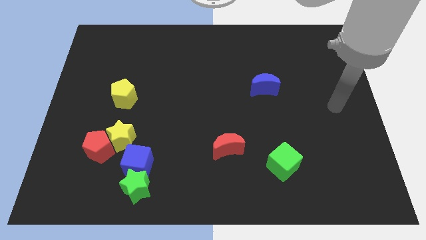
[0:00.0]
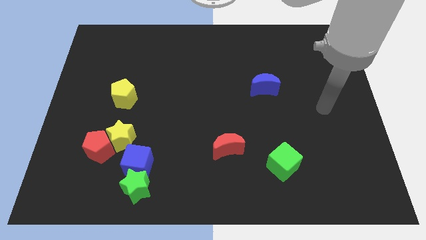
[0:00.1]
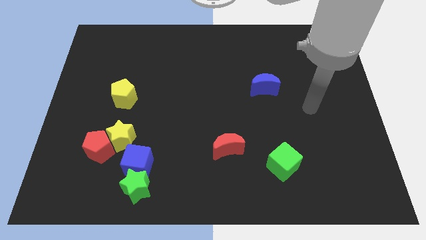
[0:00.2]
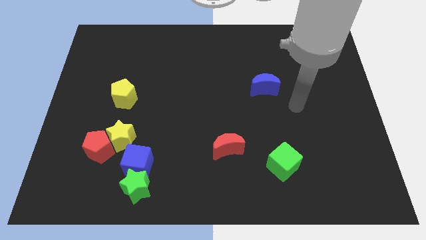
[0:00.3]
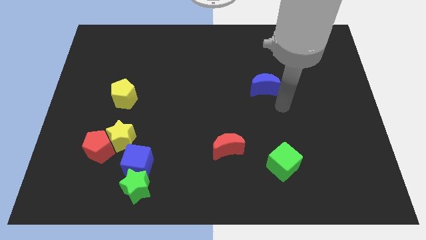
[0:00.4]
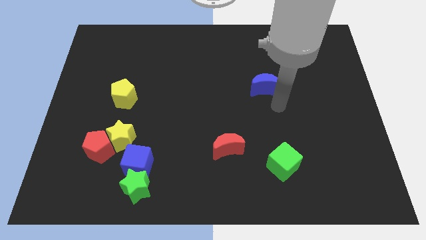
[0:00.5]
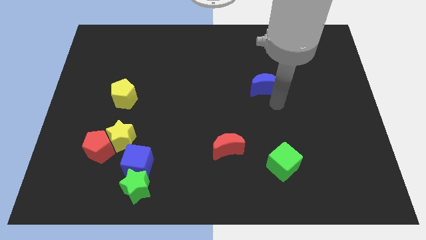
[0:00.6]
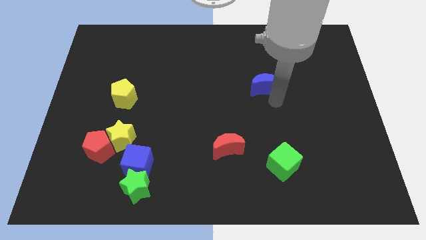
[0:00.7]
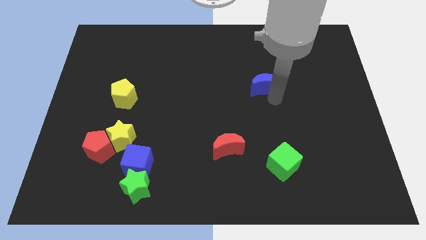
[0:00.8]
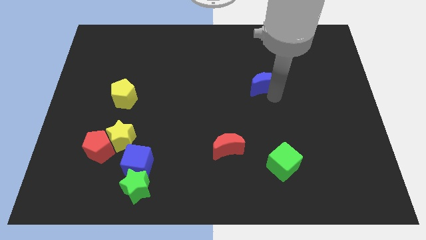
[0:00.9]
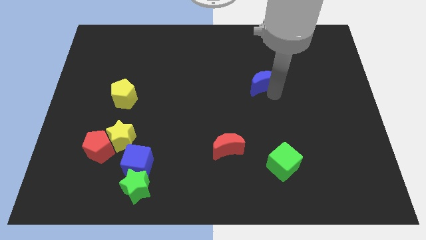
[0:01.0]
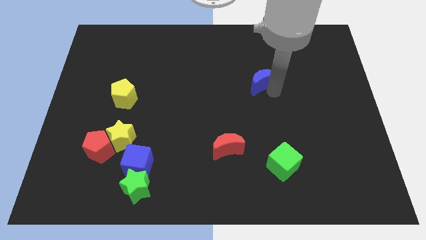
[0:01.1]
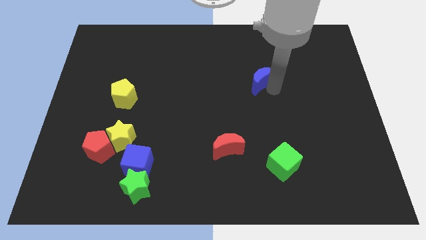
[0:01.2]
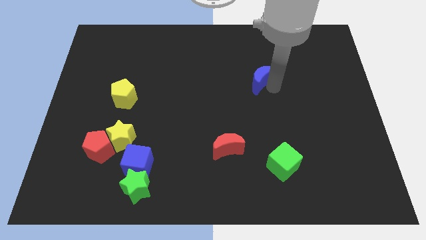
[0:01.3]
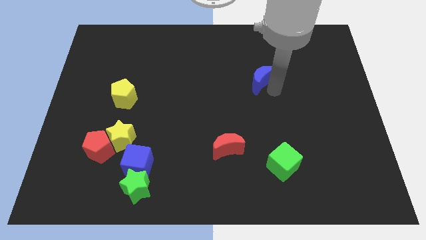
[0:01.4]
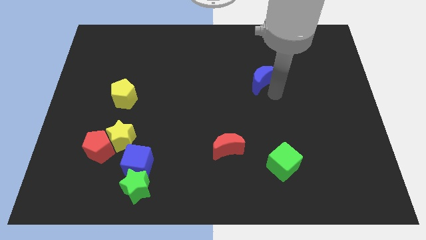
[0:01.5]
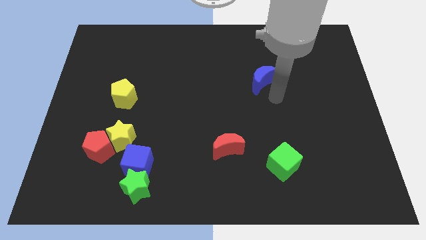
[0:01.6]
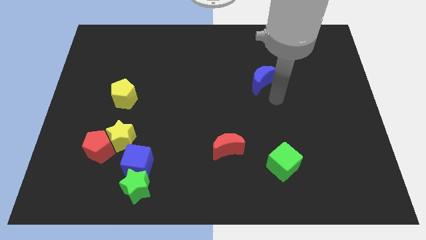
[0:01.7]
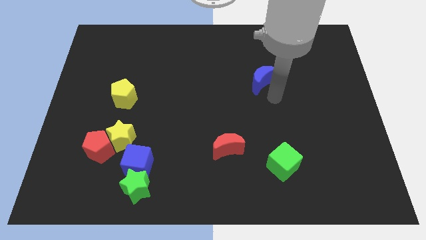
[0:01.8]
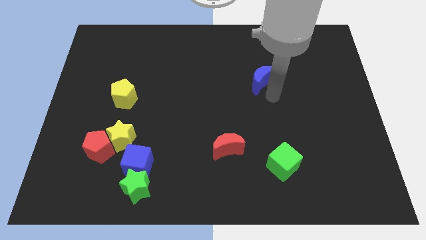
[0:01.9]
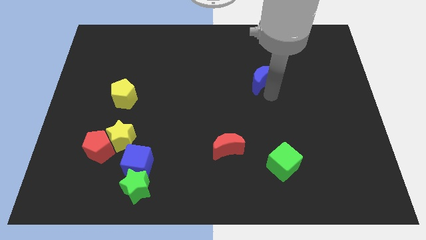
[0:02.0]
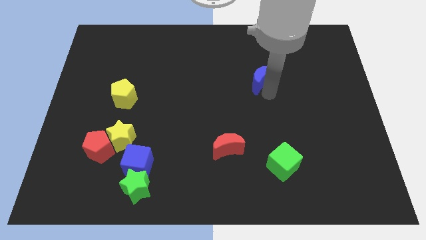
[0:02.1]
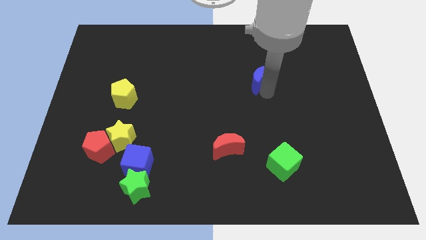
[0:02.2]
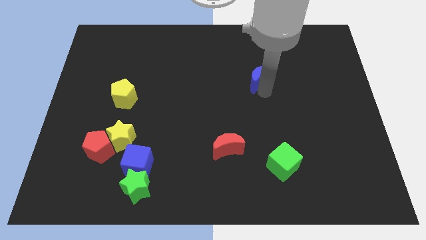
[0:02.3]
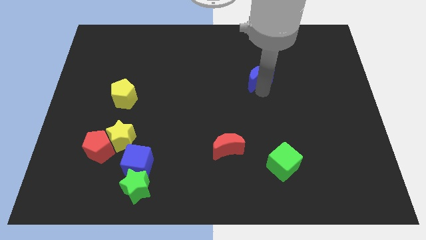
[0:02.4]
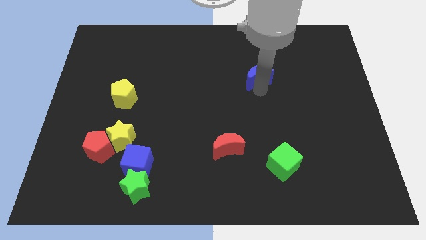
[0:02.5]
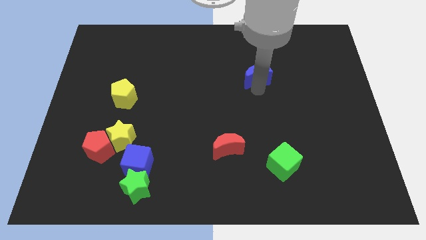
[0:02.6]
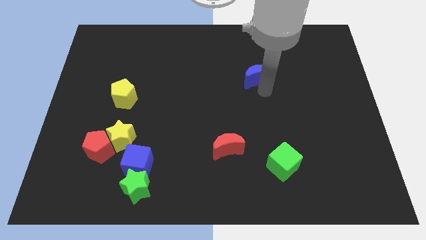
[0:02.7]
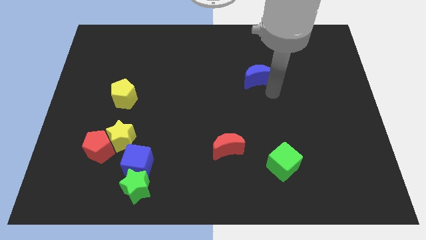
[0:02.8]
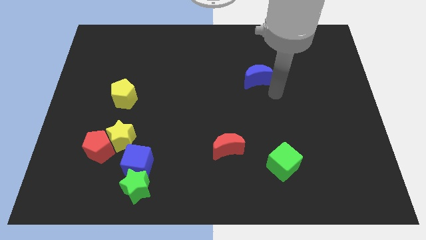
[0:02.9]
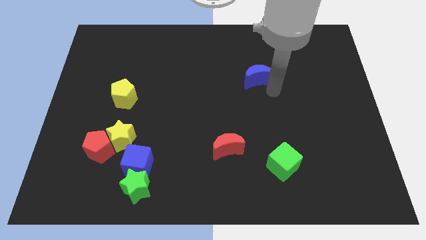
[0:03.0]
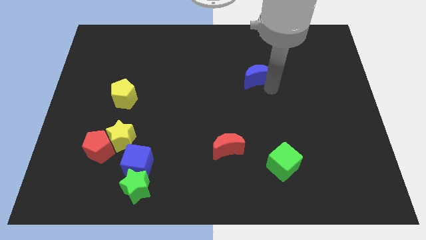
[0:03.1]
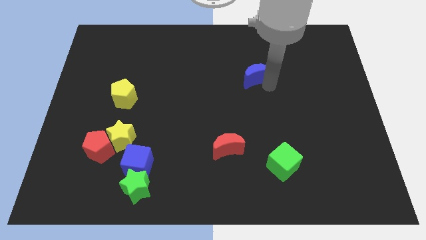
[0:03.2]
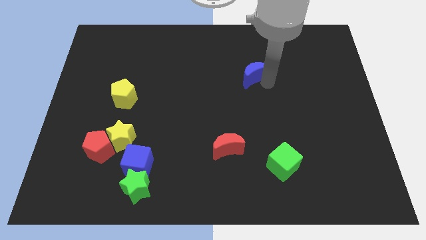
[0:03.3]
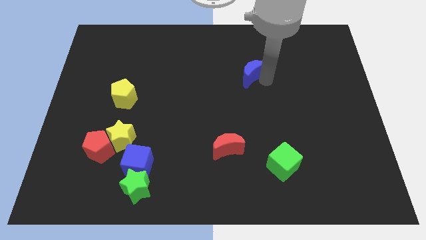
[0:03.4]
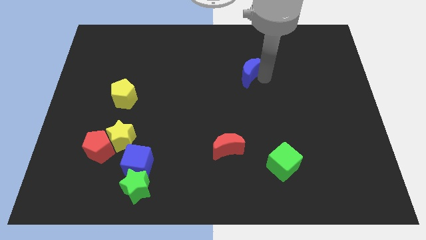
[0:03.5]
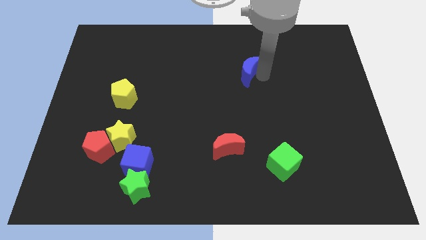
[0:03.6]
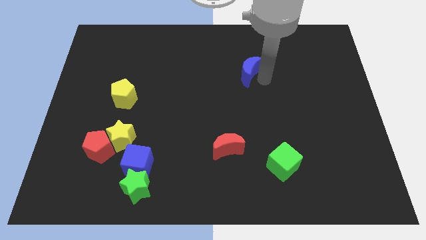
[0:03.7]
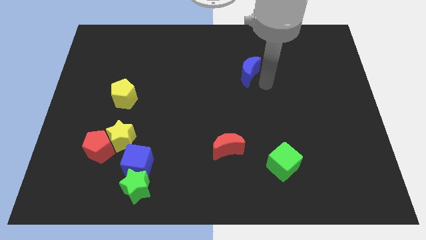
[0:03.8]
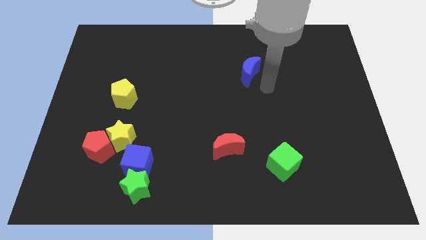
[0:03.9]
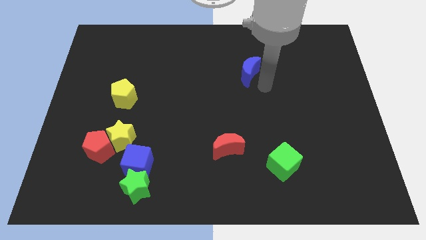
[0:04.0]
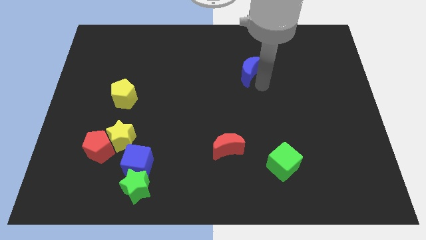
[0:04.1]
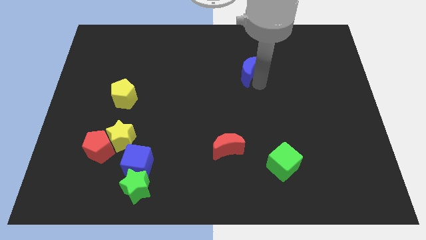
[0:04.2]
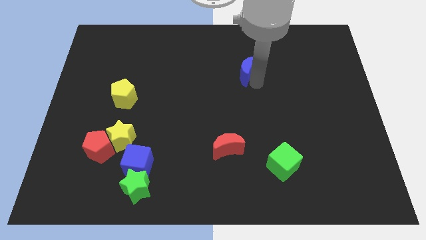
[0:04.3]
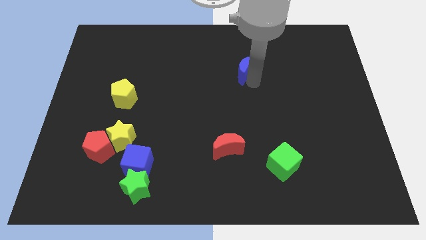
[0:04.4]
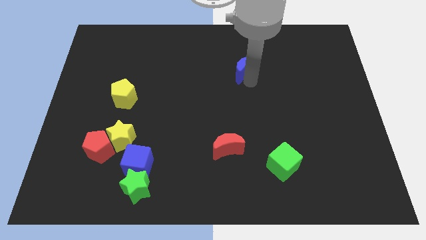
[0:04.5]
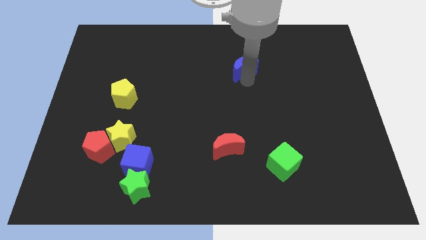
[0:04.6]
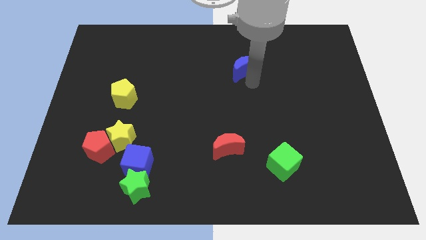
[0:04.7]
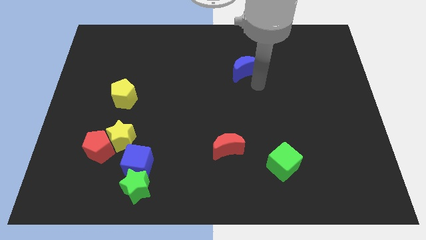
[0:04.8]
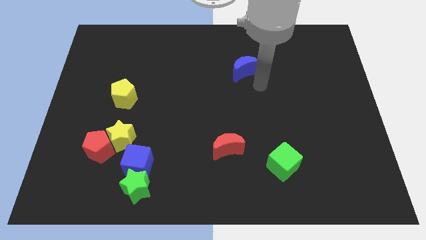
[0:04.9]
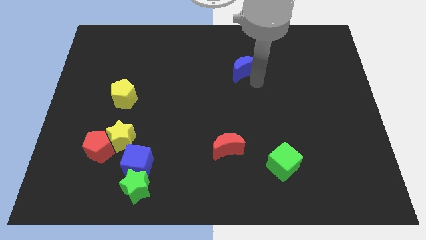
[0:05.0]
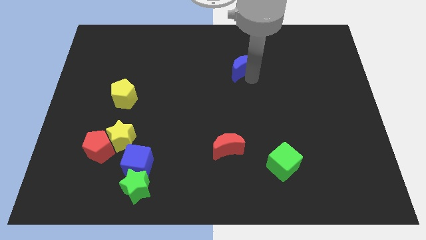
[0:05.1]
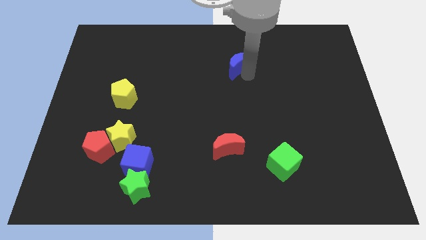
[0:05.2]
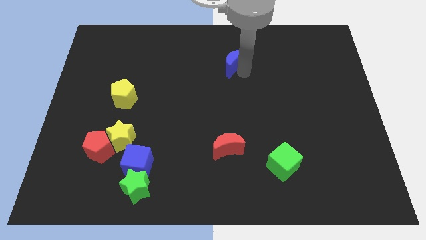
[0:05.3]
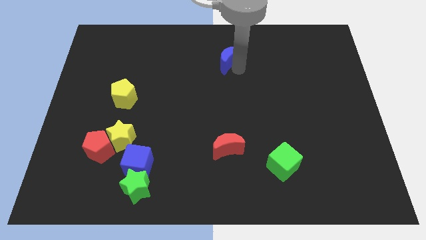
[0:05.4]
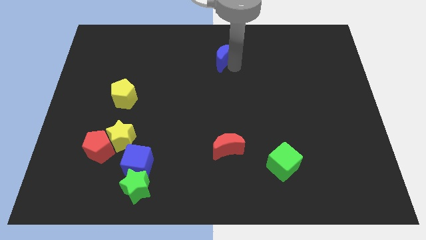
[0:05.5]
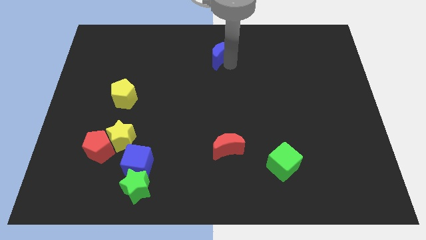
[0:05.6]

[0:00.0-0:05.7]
move the blue moon to the top side

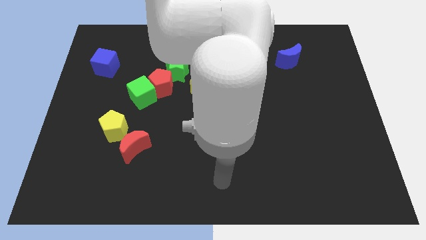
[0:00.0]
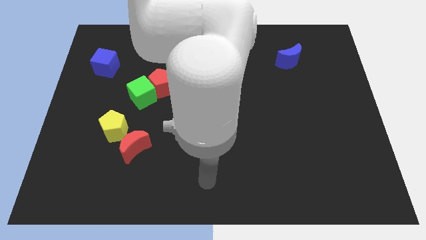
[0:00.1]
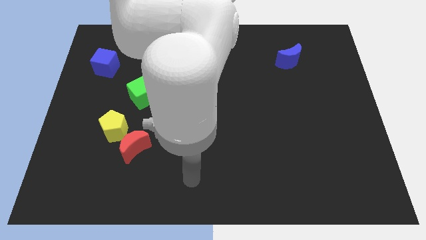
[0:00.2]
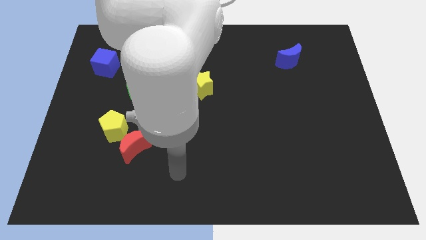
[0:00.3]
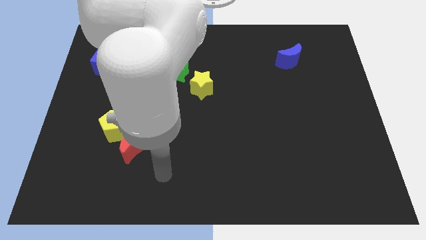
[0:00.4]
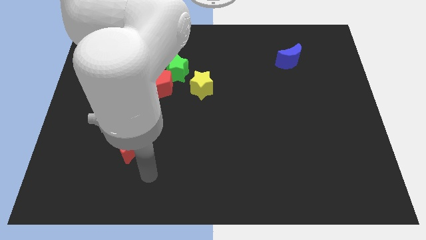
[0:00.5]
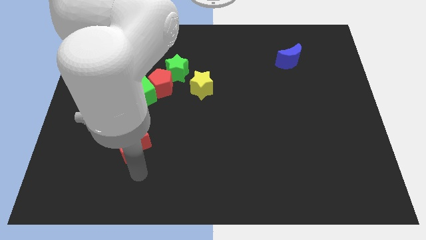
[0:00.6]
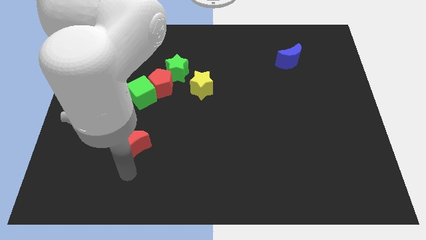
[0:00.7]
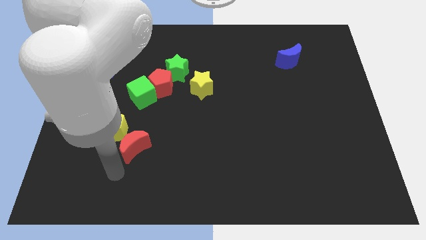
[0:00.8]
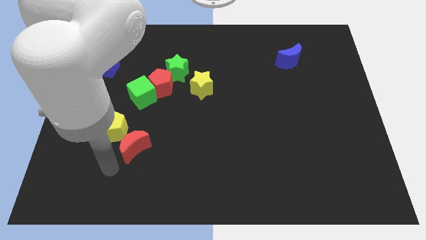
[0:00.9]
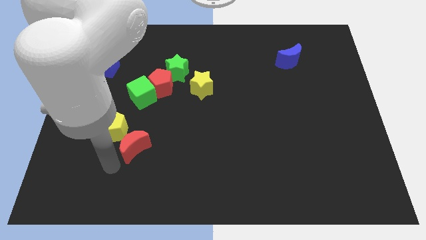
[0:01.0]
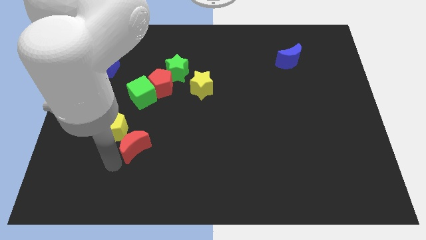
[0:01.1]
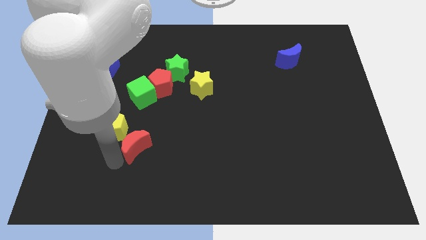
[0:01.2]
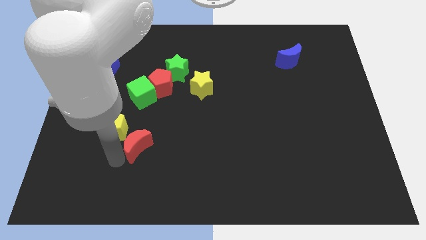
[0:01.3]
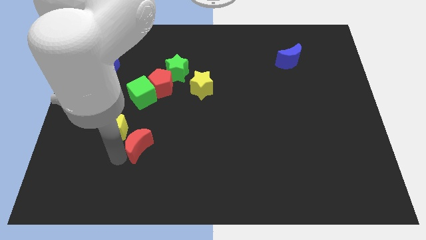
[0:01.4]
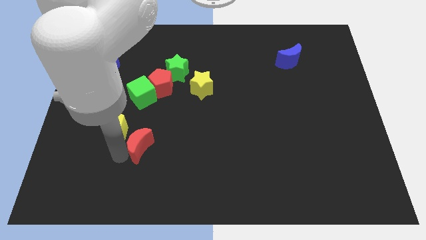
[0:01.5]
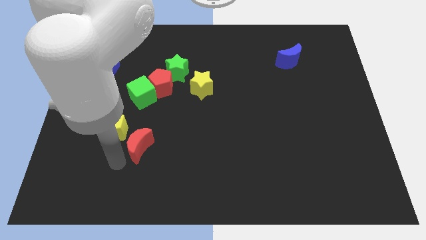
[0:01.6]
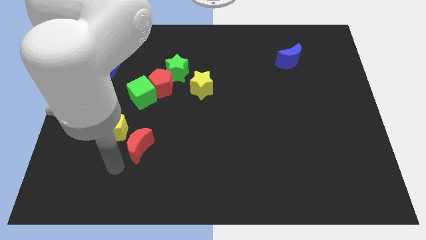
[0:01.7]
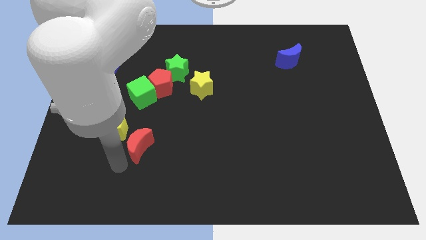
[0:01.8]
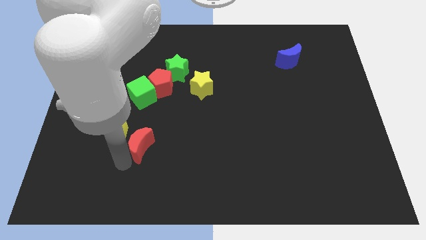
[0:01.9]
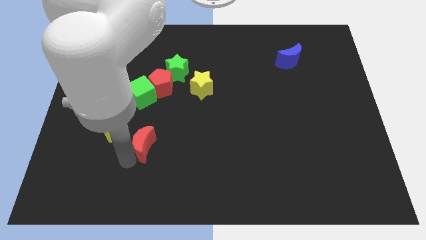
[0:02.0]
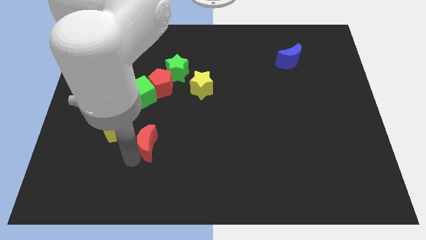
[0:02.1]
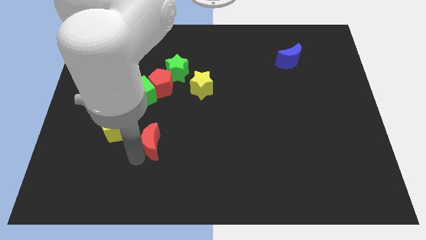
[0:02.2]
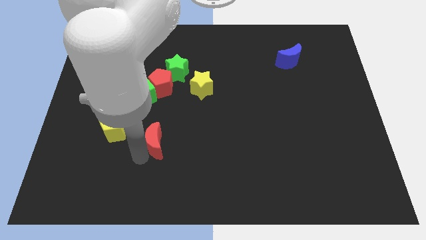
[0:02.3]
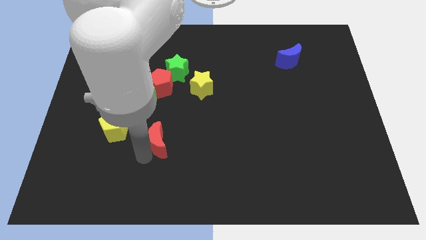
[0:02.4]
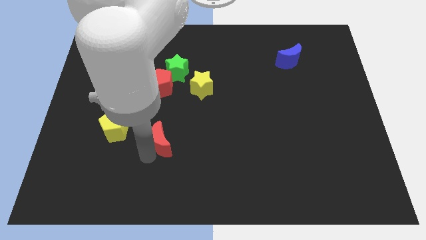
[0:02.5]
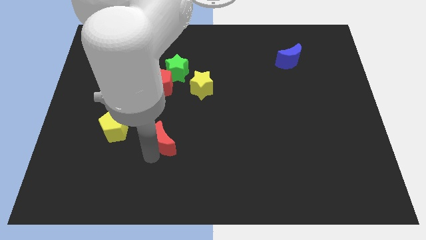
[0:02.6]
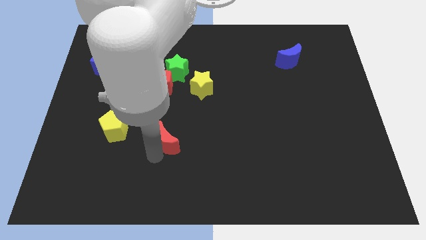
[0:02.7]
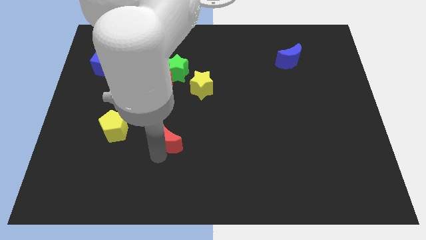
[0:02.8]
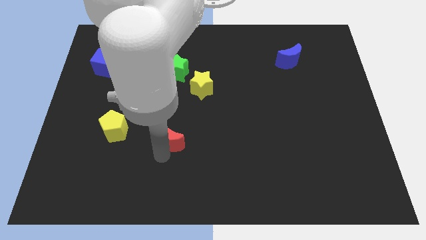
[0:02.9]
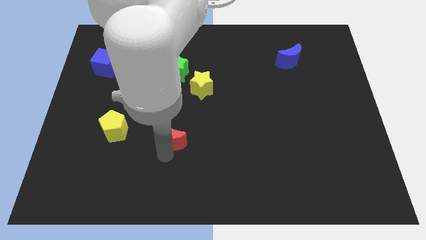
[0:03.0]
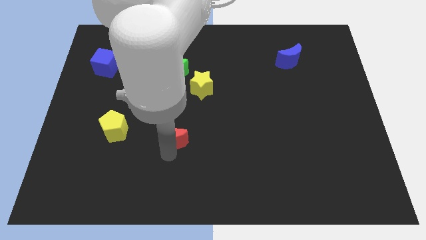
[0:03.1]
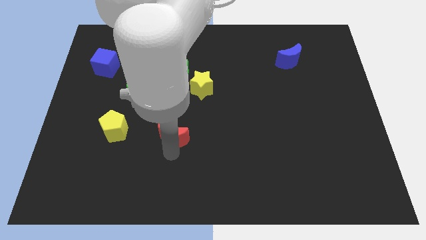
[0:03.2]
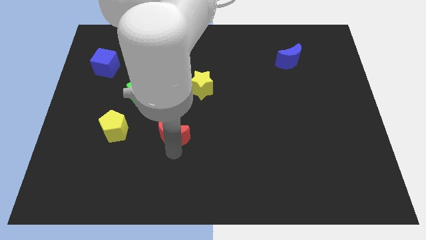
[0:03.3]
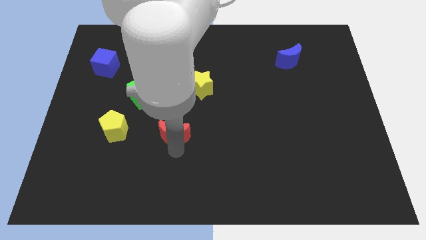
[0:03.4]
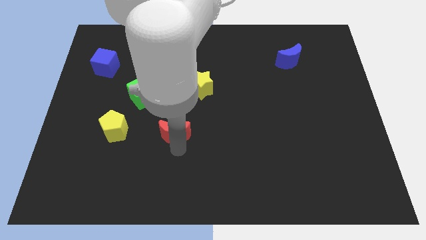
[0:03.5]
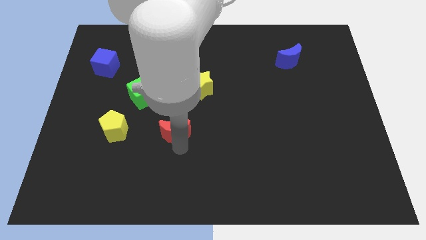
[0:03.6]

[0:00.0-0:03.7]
put the red moon to the middle
